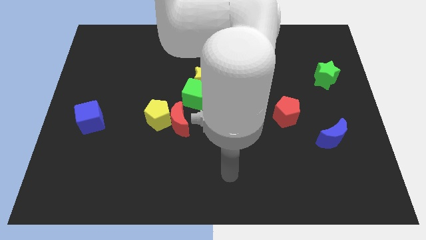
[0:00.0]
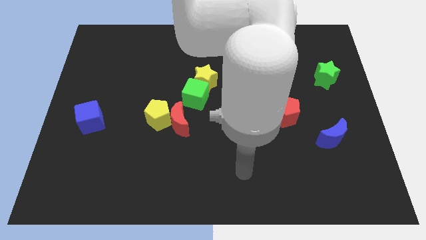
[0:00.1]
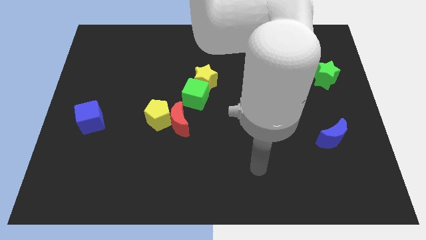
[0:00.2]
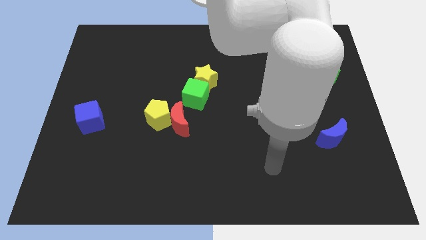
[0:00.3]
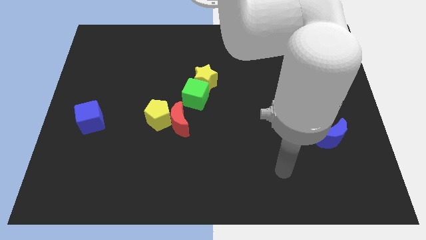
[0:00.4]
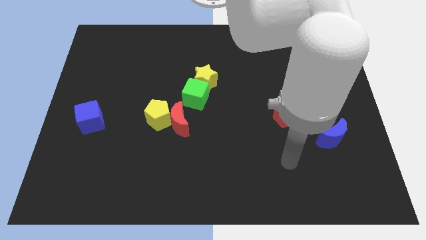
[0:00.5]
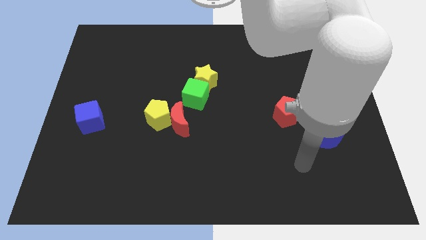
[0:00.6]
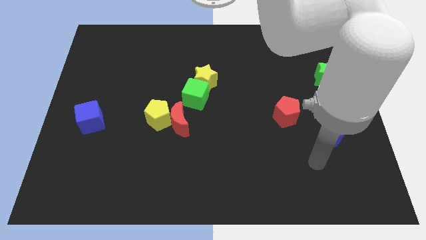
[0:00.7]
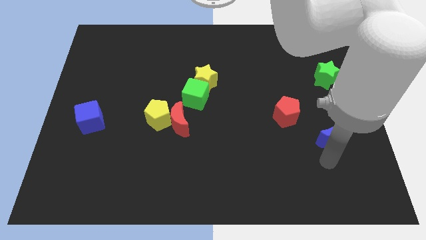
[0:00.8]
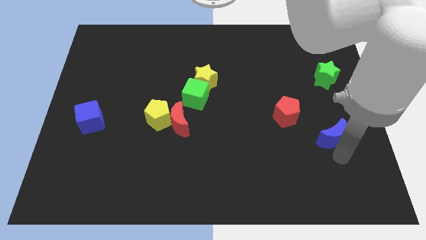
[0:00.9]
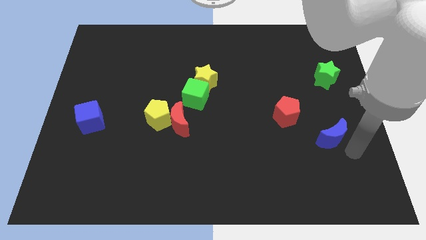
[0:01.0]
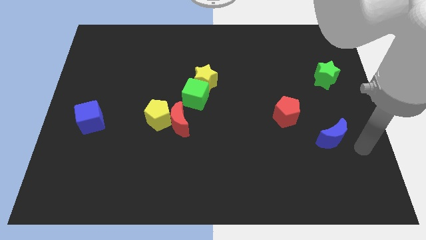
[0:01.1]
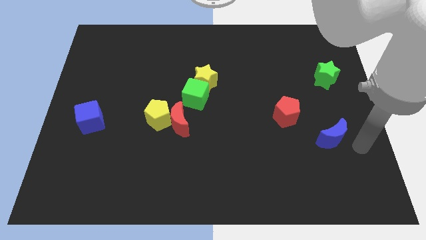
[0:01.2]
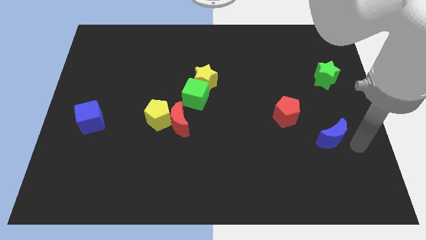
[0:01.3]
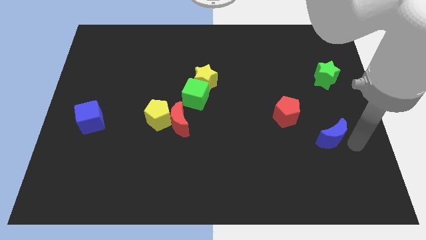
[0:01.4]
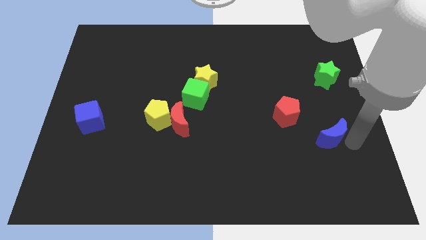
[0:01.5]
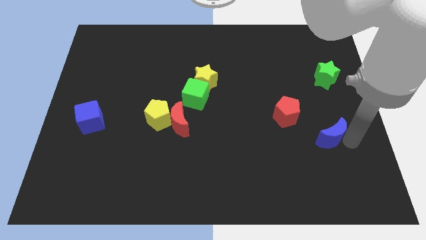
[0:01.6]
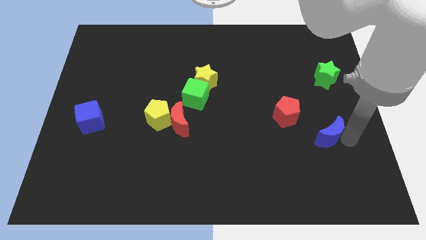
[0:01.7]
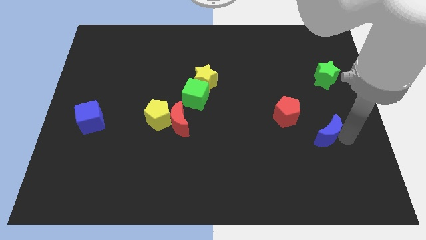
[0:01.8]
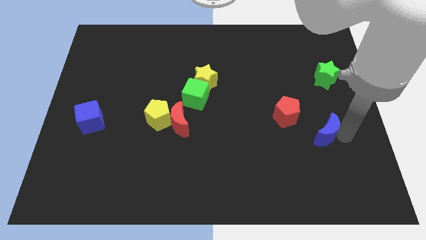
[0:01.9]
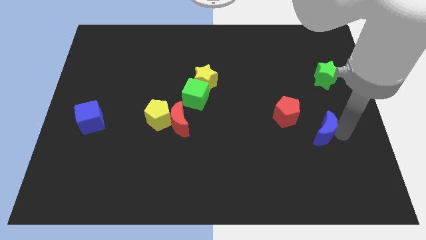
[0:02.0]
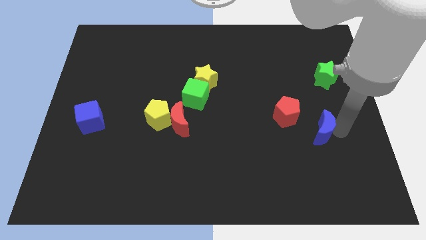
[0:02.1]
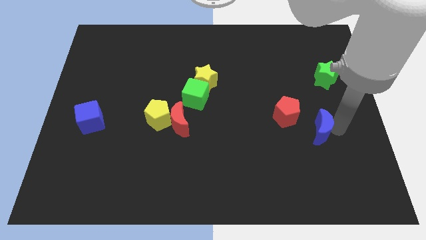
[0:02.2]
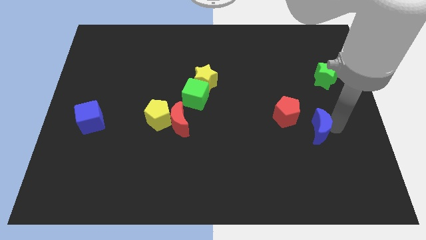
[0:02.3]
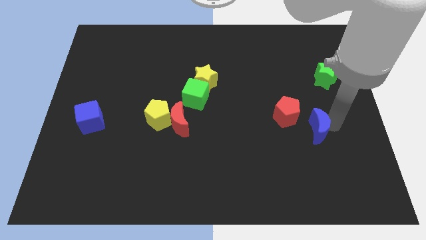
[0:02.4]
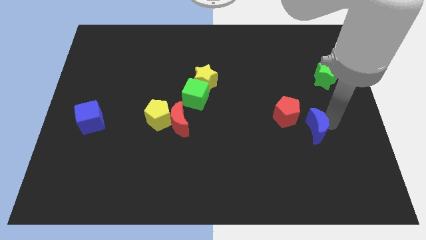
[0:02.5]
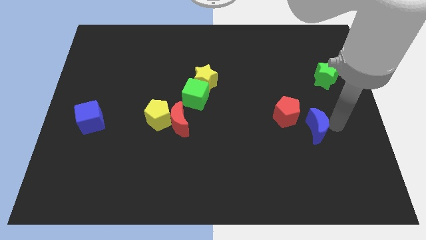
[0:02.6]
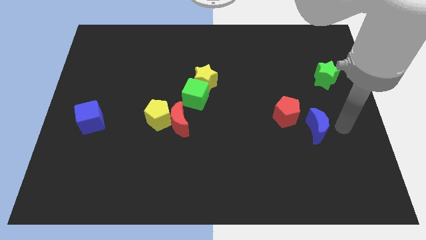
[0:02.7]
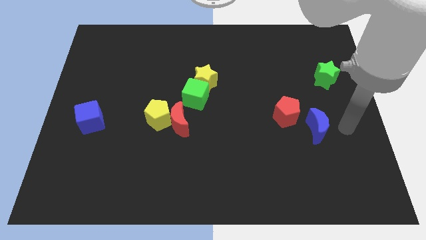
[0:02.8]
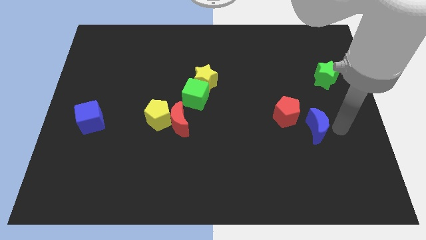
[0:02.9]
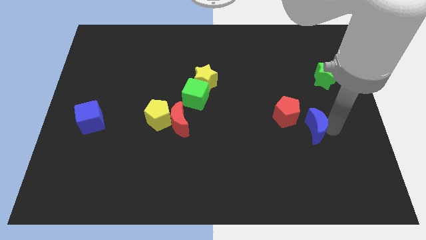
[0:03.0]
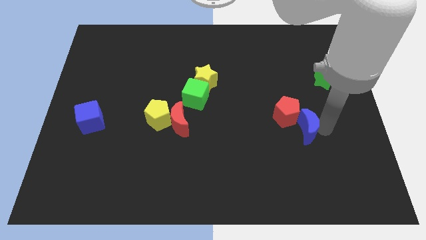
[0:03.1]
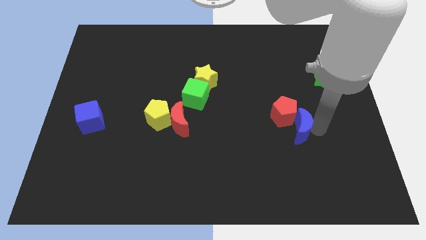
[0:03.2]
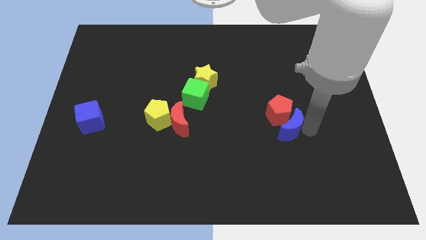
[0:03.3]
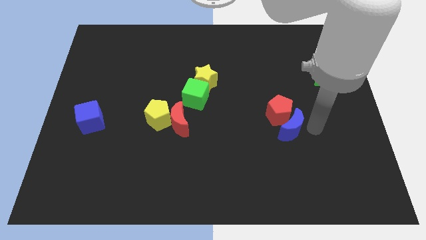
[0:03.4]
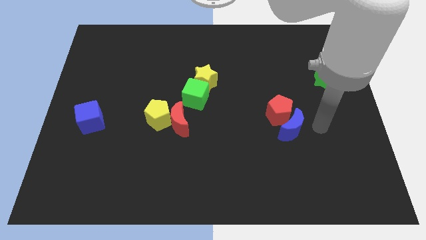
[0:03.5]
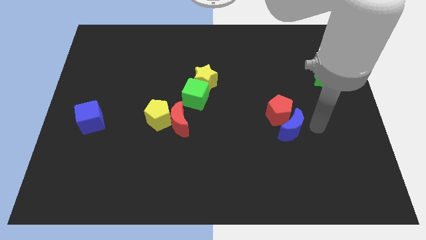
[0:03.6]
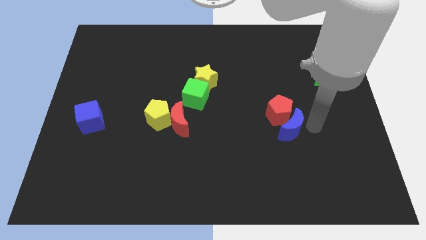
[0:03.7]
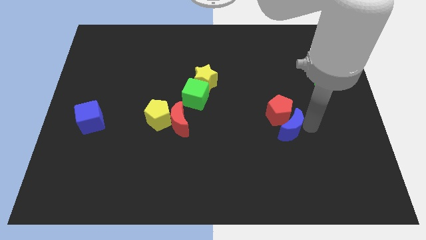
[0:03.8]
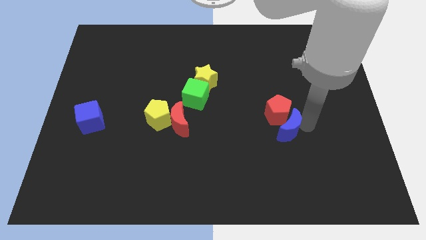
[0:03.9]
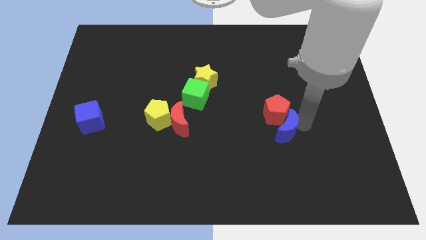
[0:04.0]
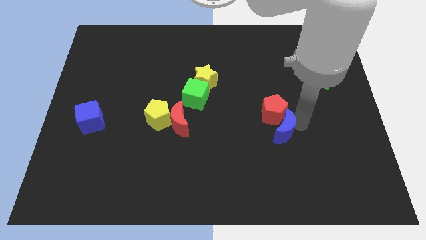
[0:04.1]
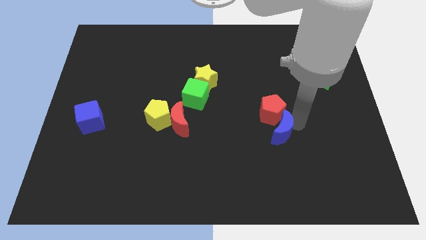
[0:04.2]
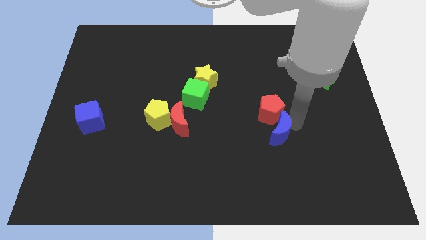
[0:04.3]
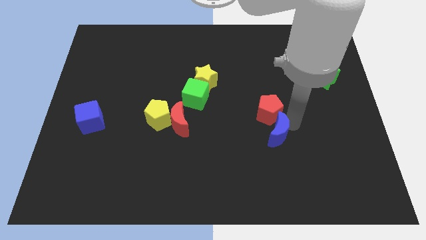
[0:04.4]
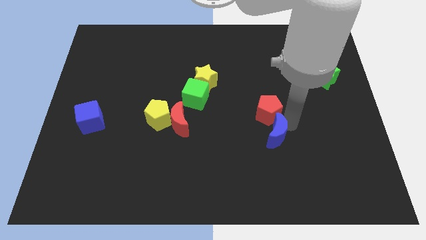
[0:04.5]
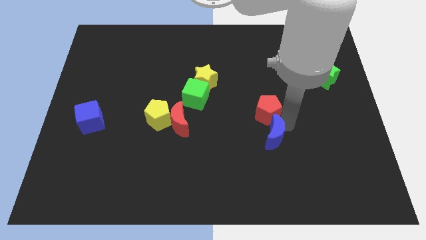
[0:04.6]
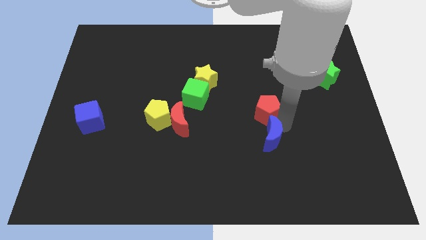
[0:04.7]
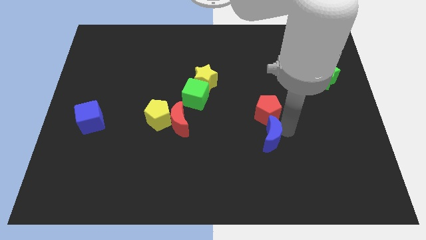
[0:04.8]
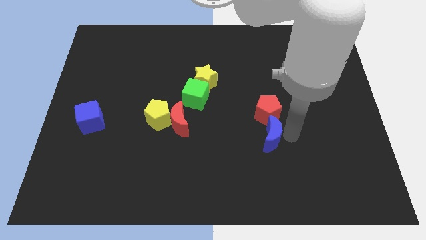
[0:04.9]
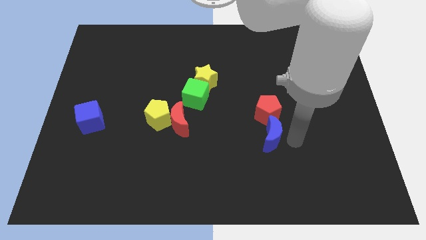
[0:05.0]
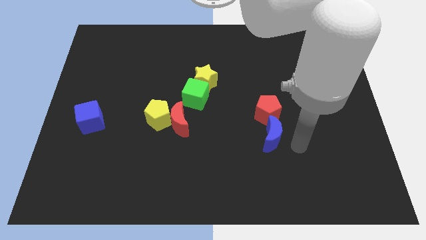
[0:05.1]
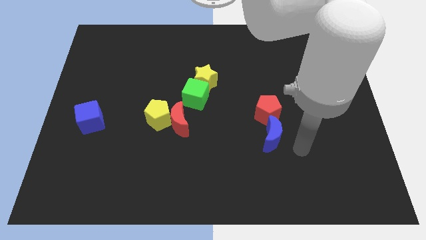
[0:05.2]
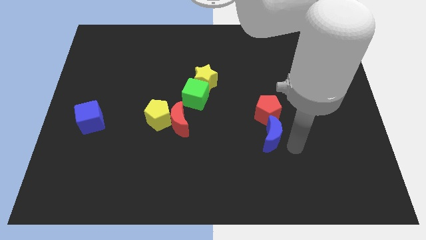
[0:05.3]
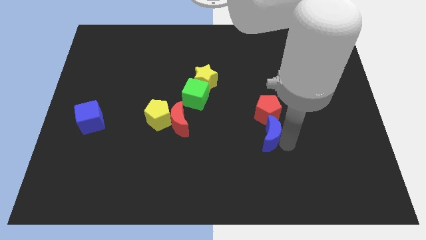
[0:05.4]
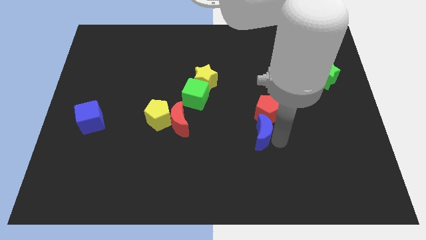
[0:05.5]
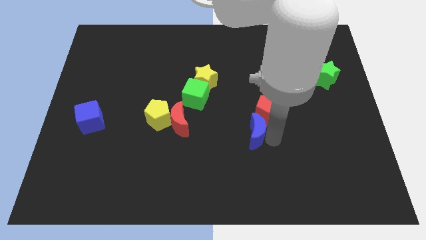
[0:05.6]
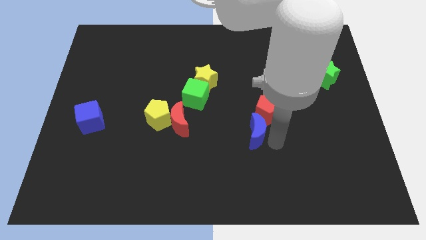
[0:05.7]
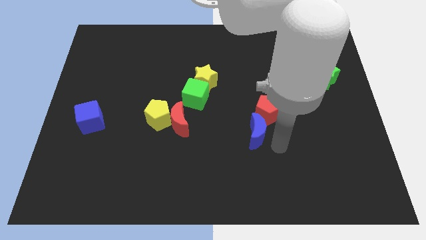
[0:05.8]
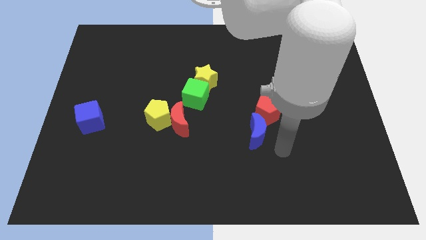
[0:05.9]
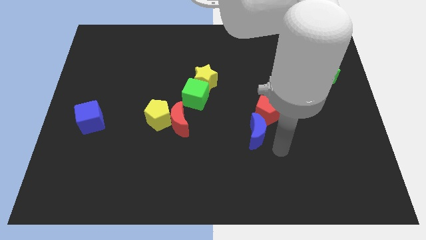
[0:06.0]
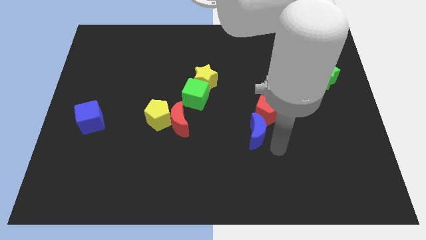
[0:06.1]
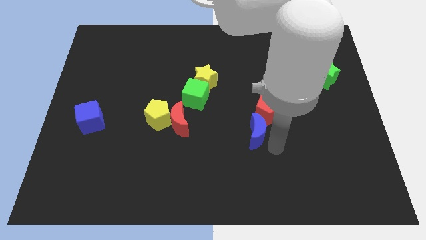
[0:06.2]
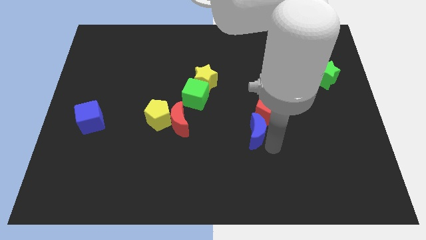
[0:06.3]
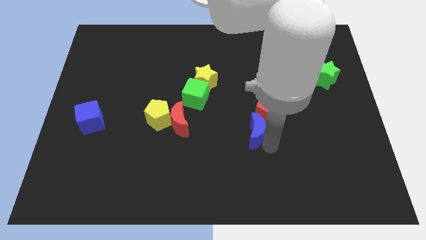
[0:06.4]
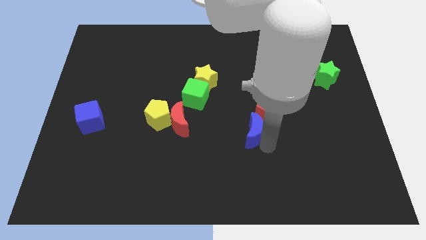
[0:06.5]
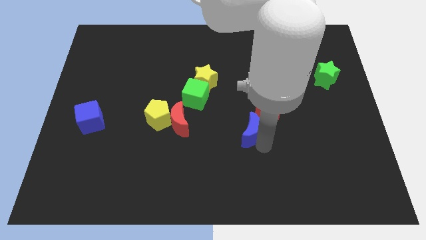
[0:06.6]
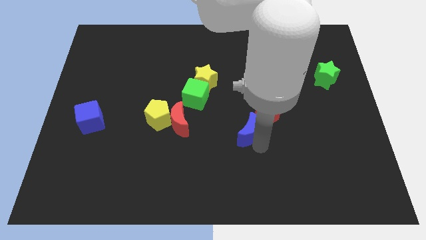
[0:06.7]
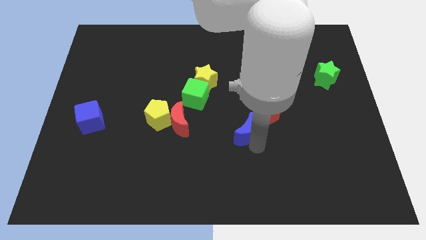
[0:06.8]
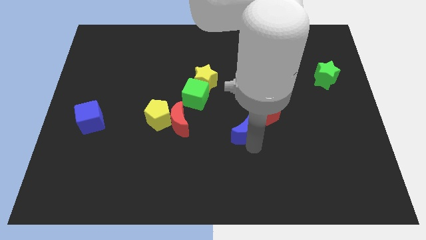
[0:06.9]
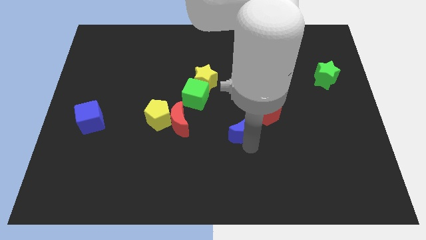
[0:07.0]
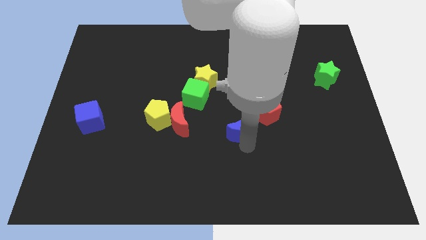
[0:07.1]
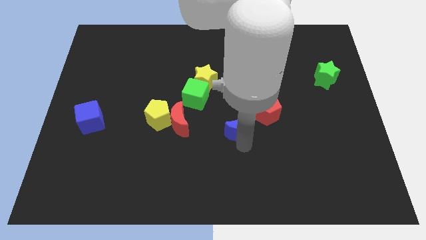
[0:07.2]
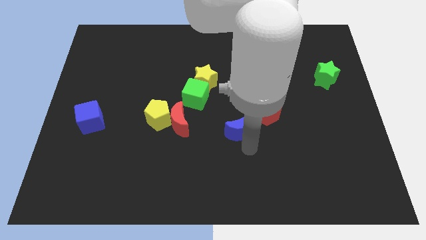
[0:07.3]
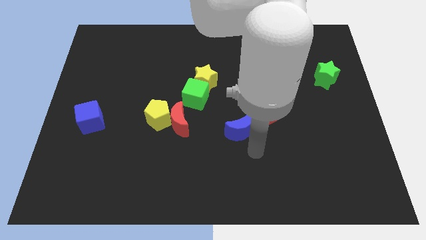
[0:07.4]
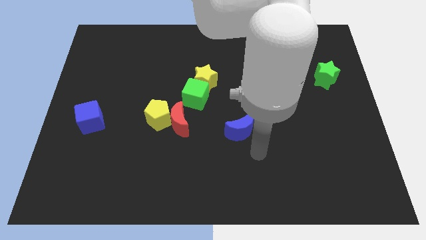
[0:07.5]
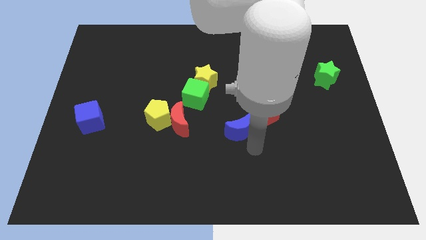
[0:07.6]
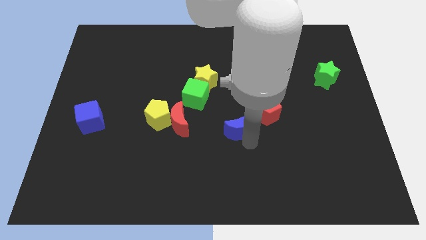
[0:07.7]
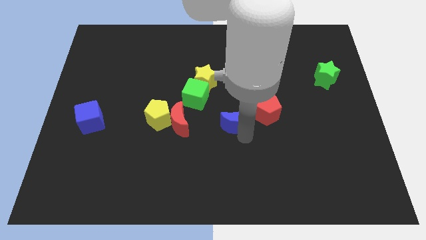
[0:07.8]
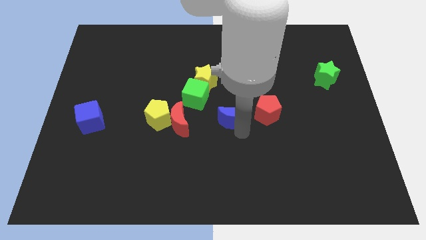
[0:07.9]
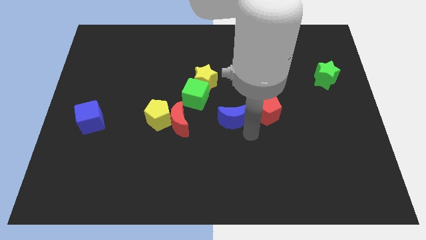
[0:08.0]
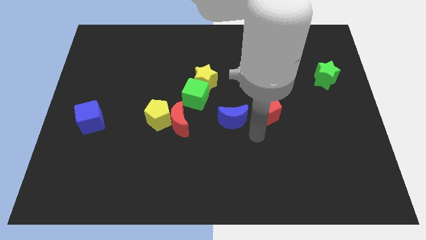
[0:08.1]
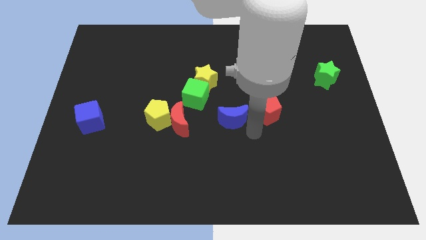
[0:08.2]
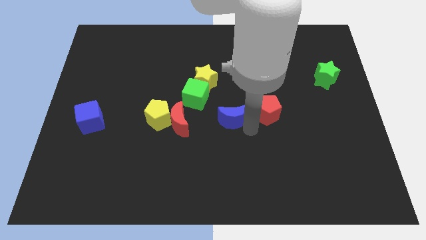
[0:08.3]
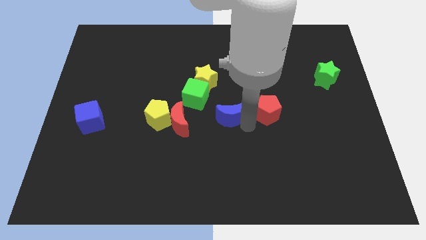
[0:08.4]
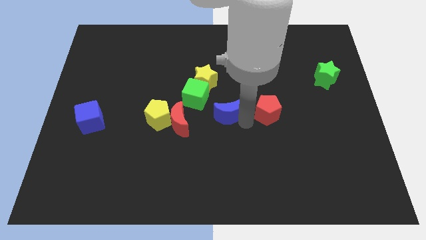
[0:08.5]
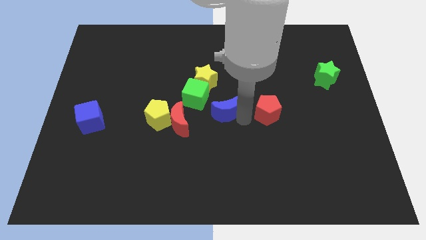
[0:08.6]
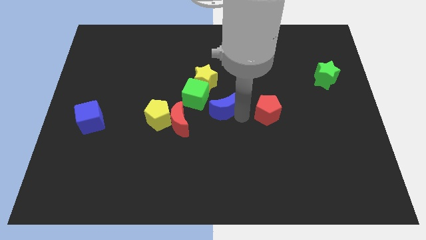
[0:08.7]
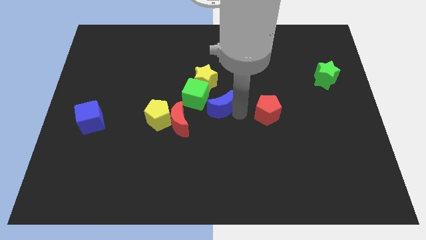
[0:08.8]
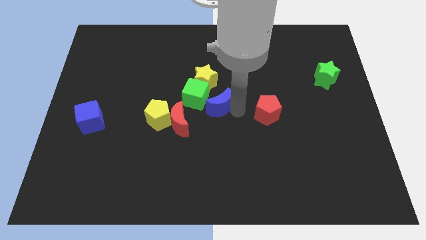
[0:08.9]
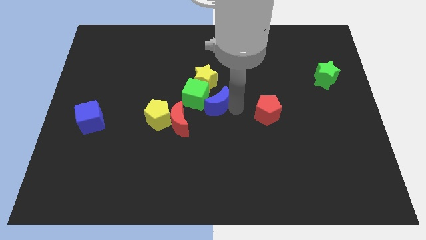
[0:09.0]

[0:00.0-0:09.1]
put the blue moon next to the green cube
